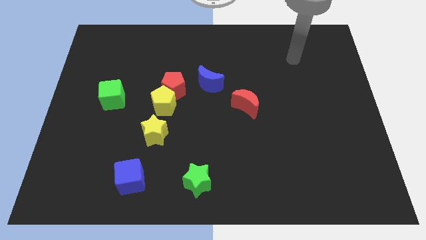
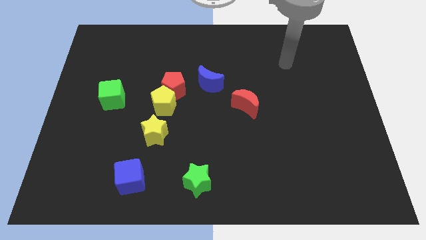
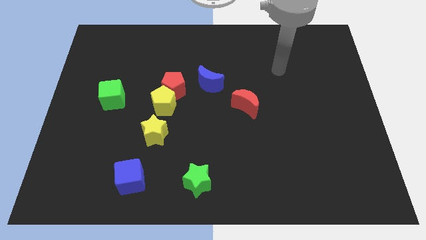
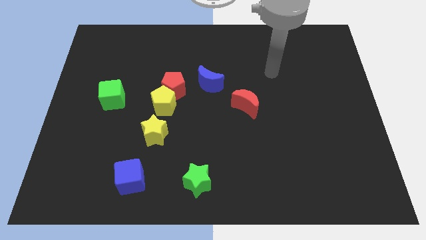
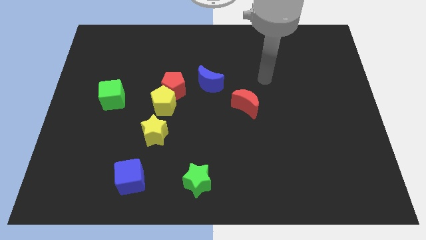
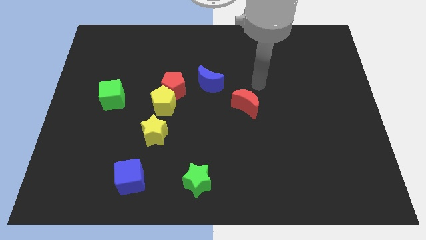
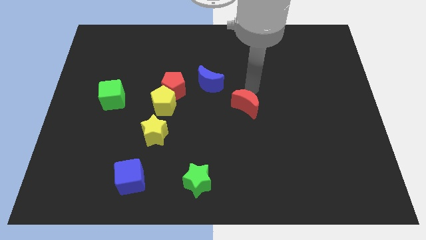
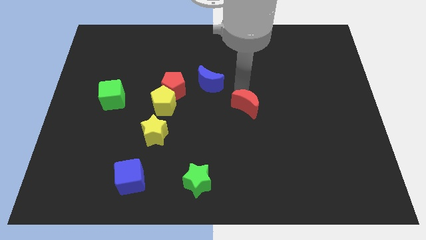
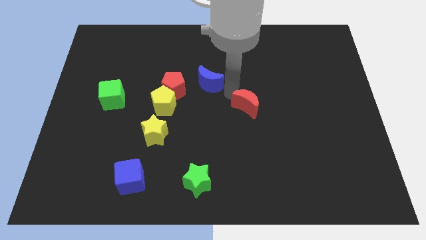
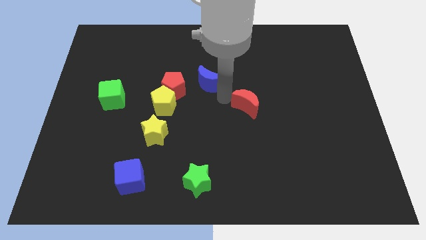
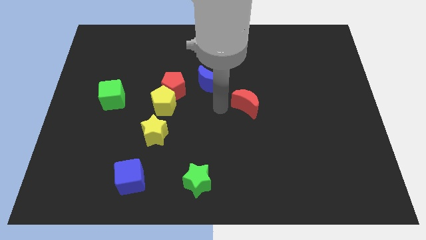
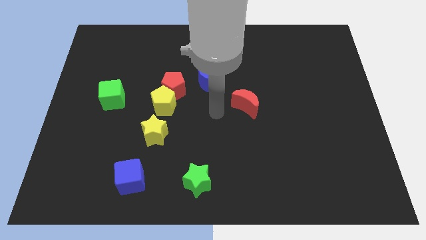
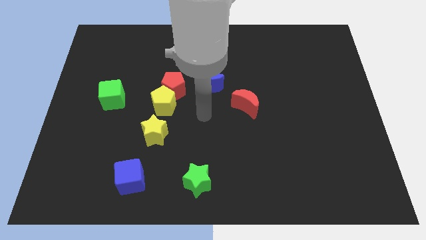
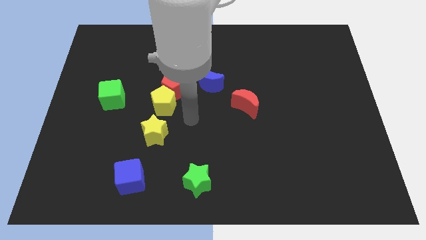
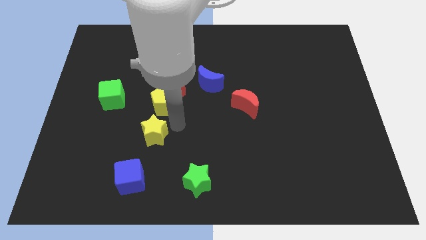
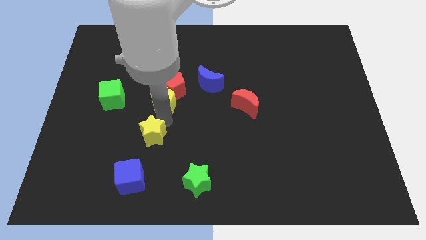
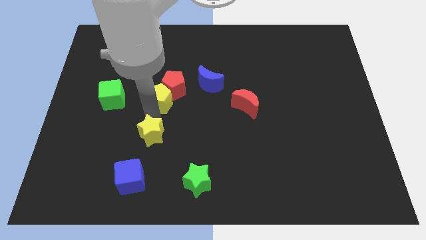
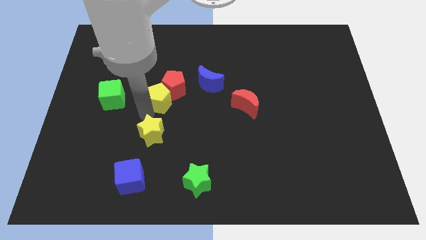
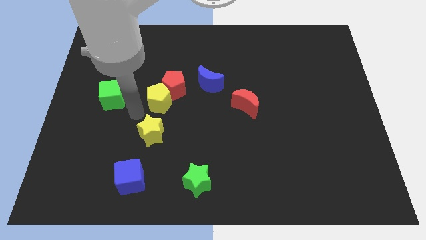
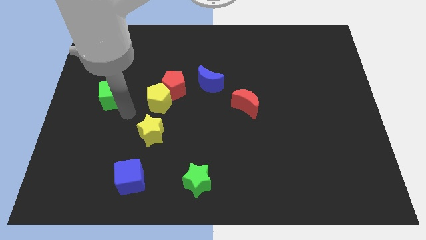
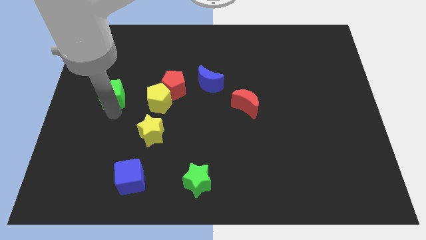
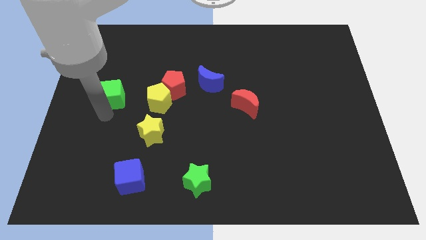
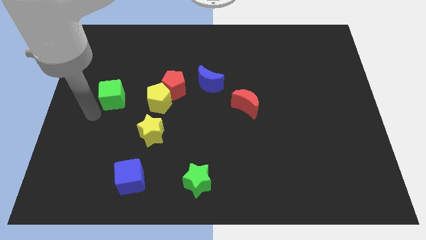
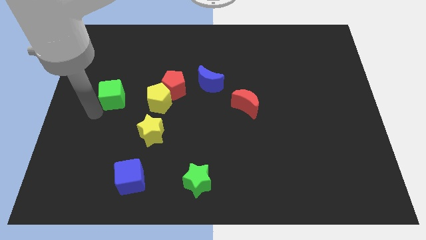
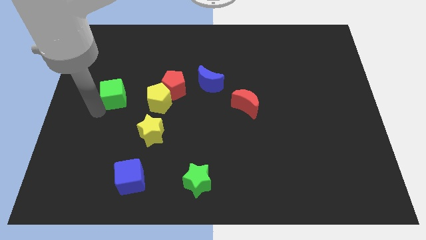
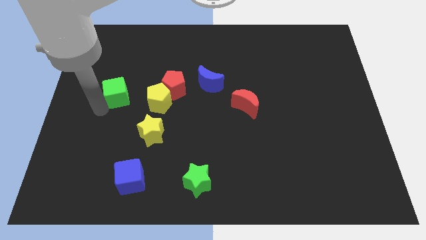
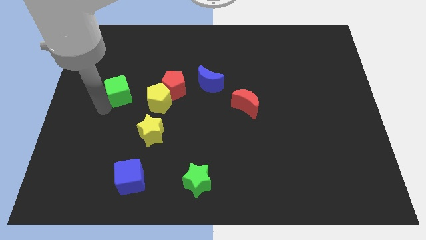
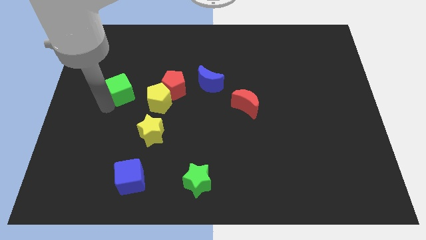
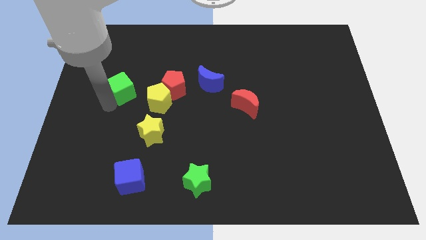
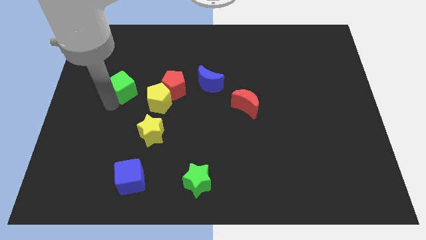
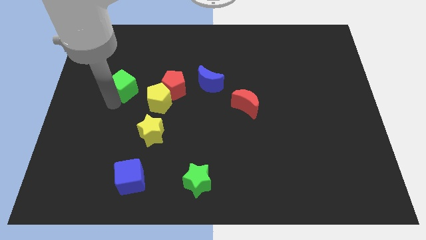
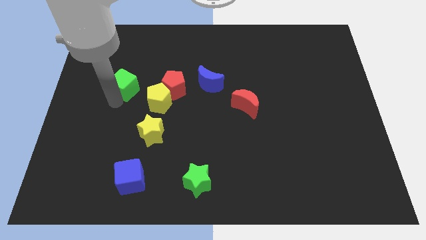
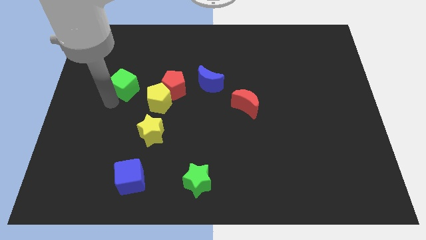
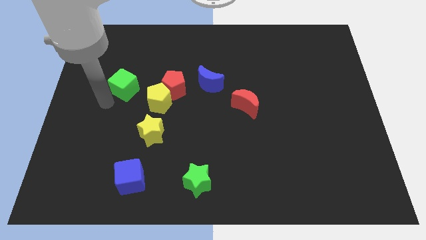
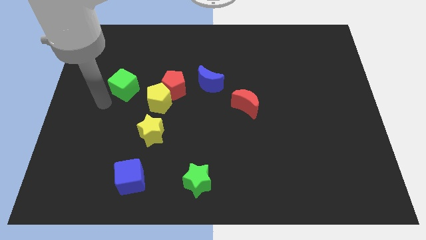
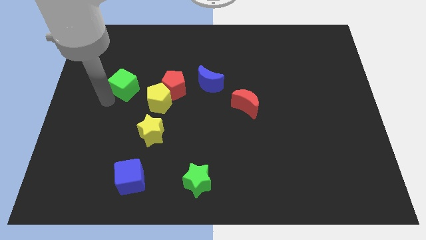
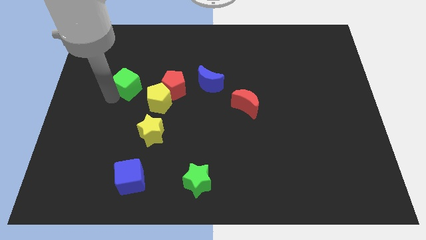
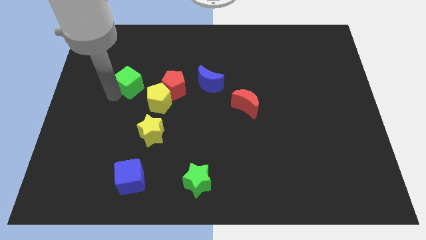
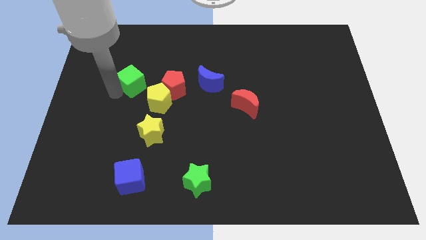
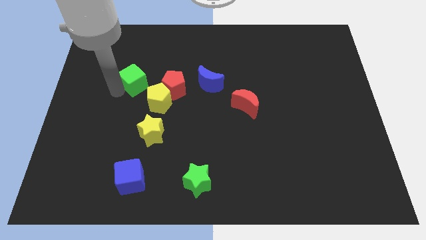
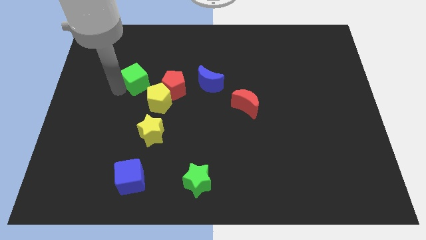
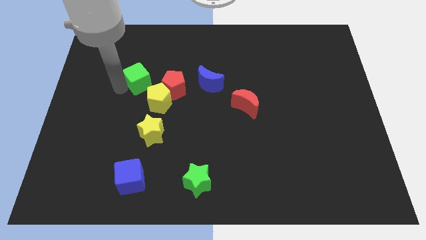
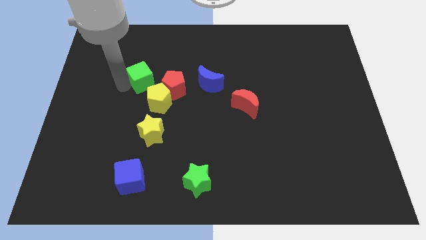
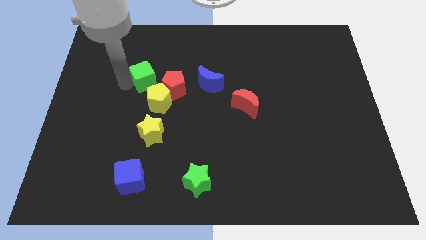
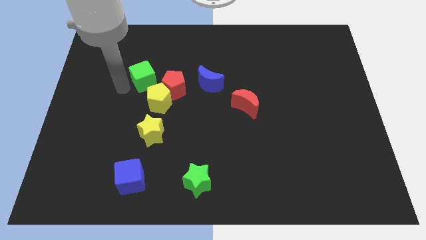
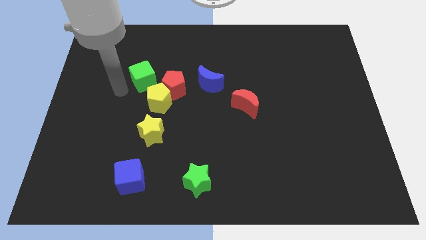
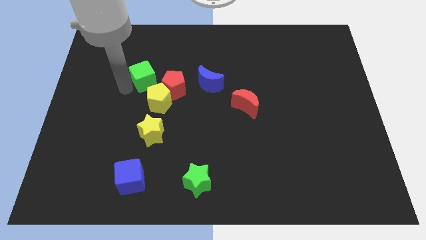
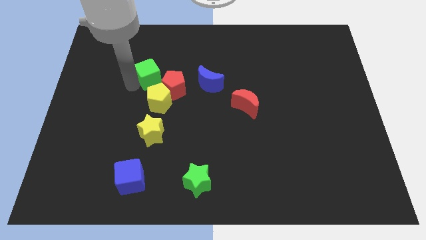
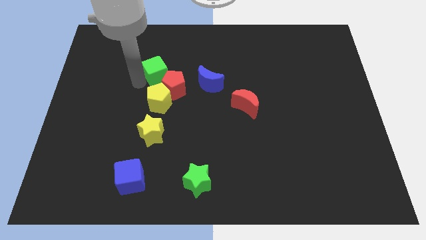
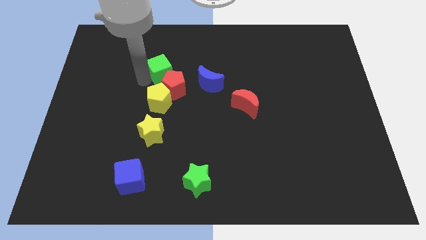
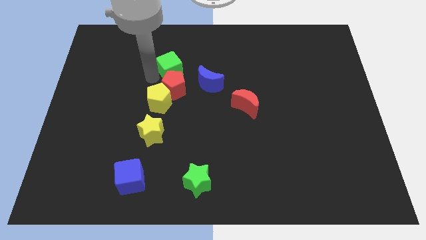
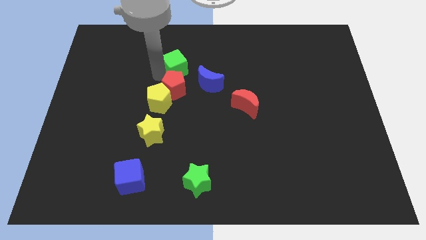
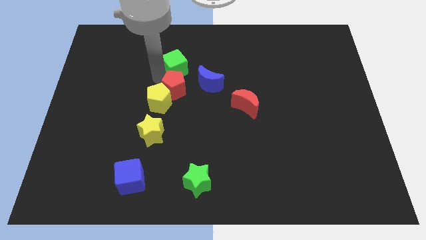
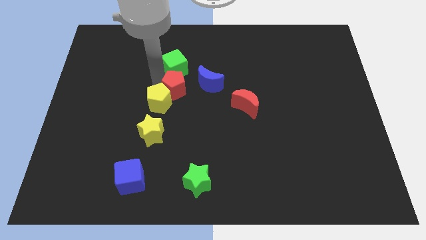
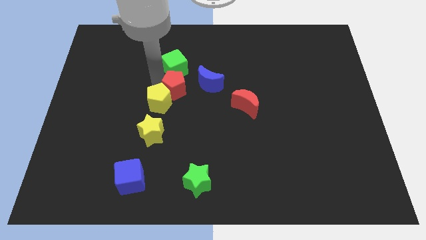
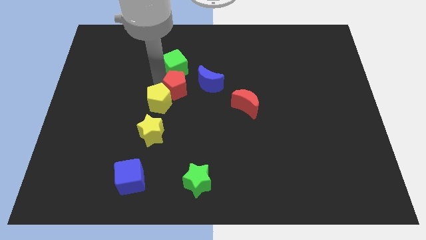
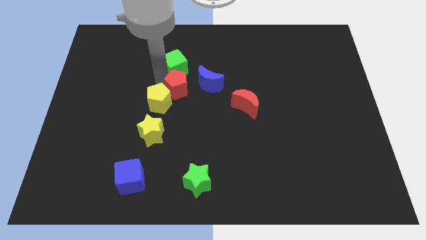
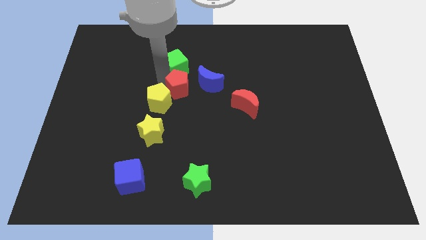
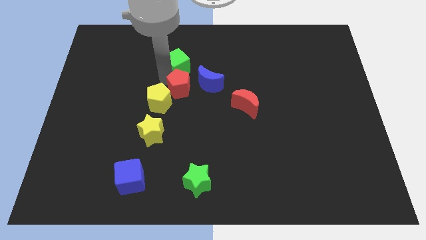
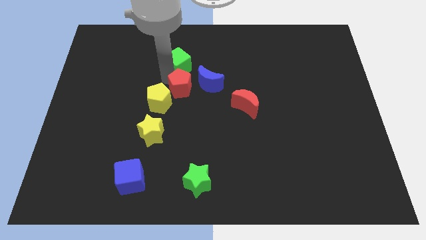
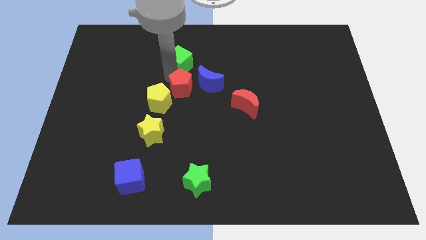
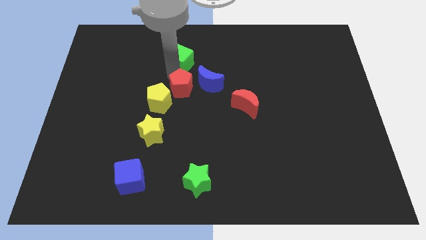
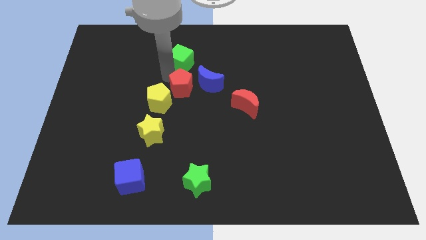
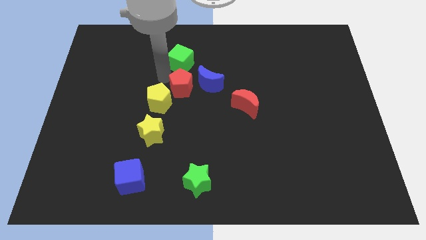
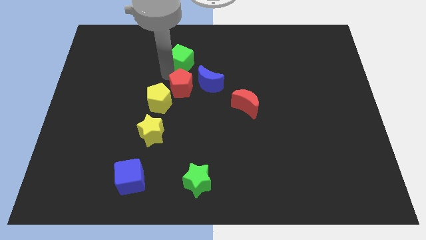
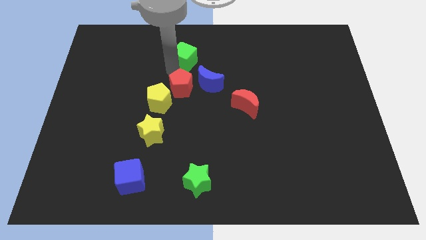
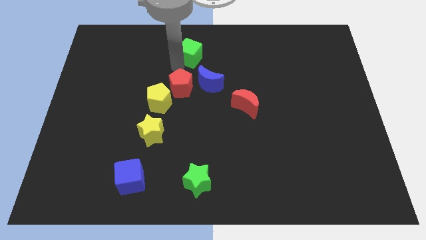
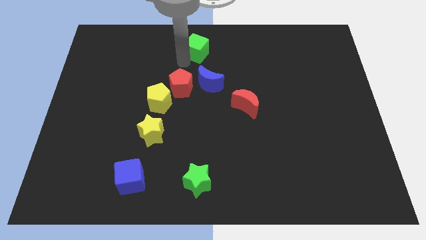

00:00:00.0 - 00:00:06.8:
put the green cube to the top side
